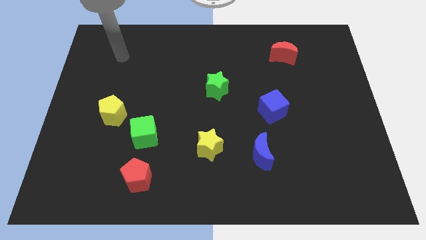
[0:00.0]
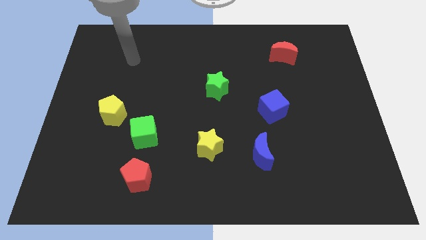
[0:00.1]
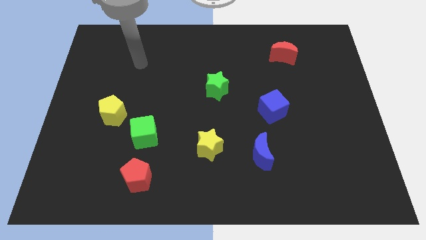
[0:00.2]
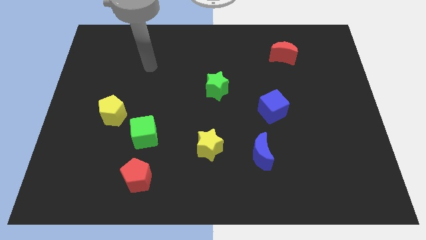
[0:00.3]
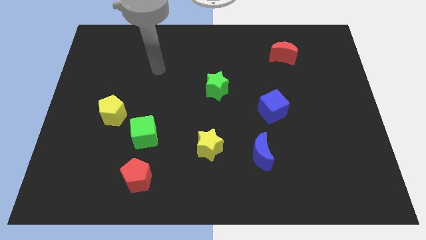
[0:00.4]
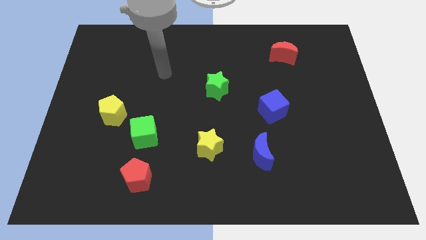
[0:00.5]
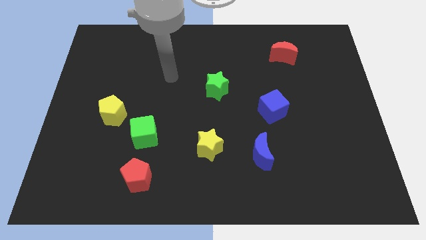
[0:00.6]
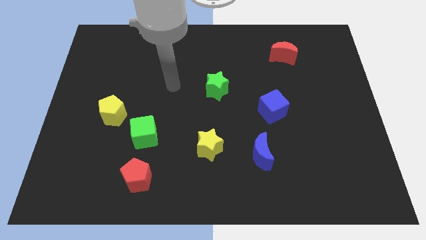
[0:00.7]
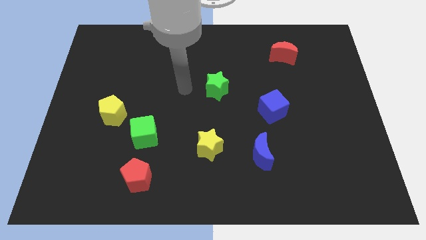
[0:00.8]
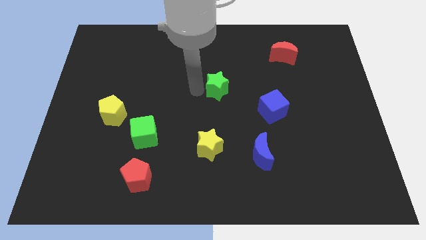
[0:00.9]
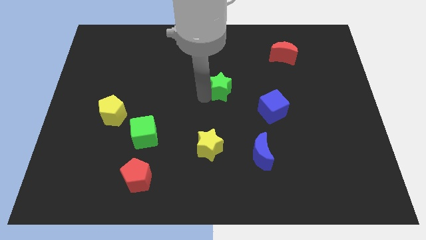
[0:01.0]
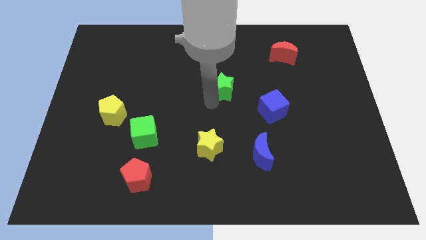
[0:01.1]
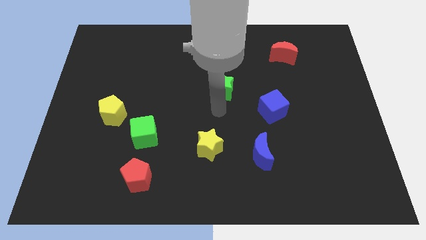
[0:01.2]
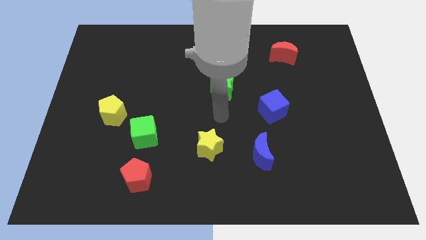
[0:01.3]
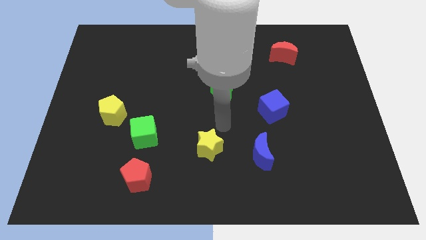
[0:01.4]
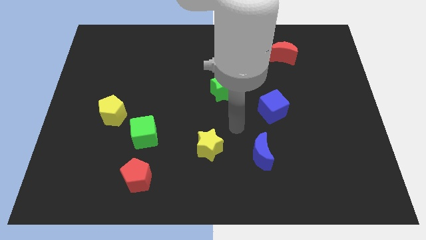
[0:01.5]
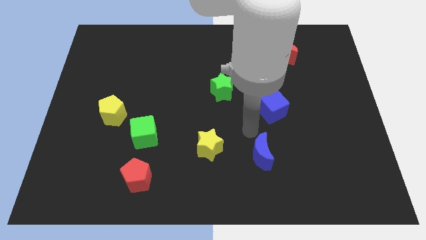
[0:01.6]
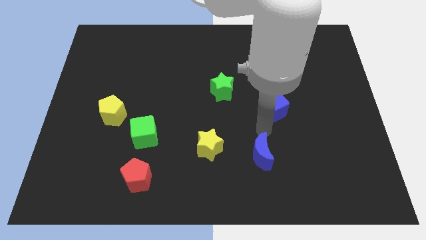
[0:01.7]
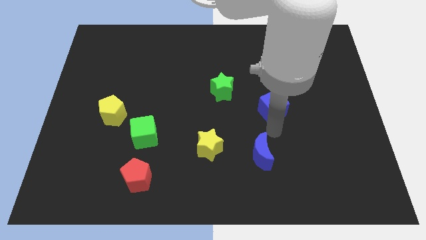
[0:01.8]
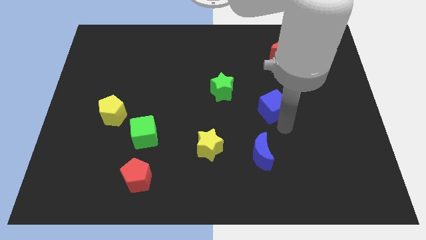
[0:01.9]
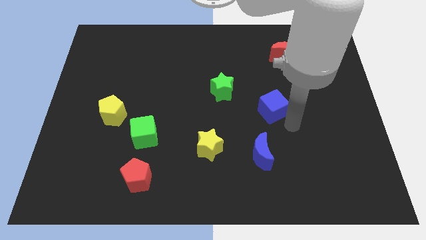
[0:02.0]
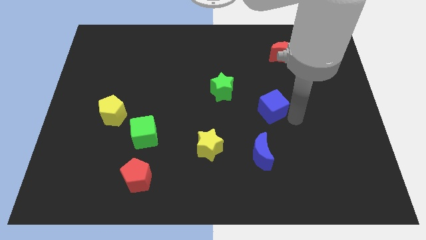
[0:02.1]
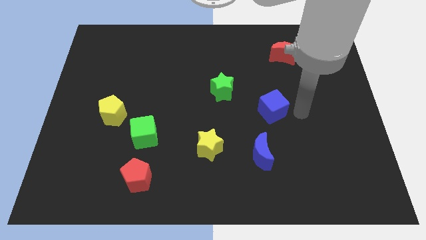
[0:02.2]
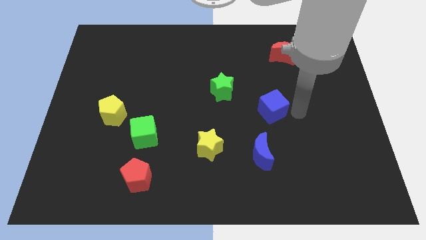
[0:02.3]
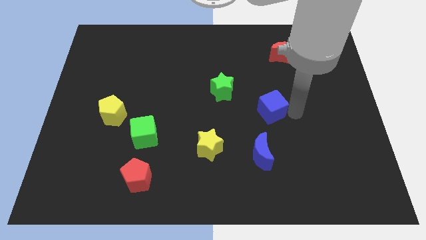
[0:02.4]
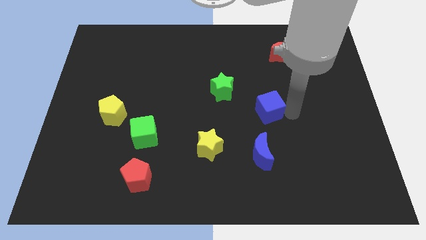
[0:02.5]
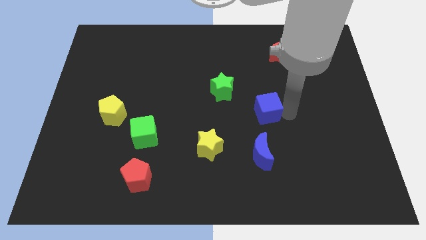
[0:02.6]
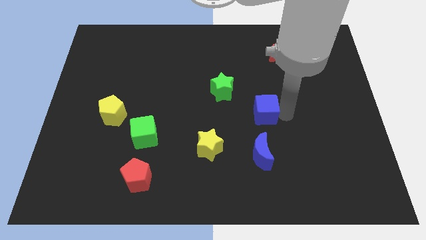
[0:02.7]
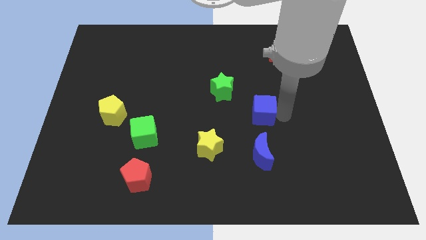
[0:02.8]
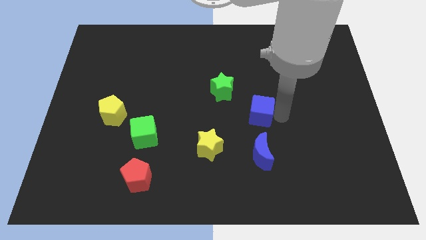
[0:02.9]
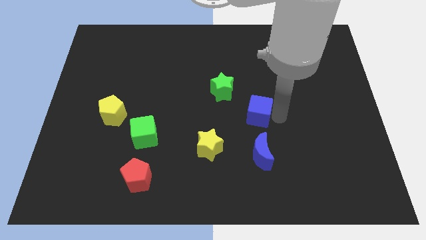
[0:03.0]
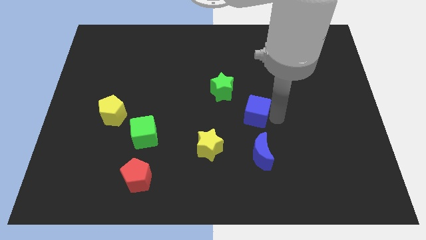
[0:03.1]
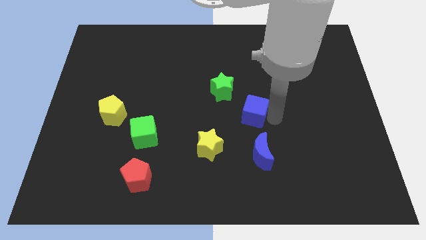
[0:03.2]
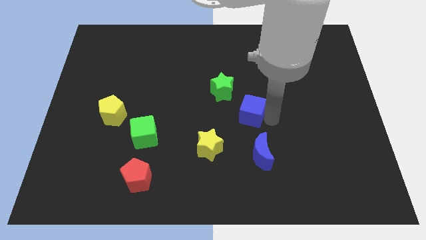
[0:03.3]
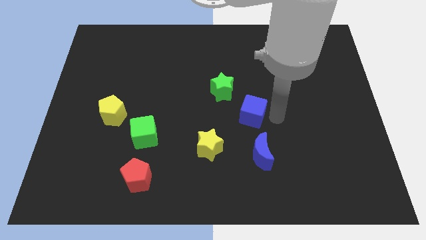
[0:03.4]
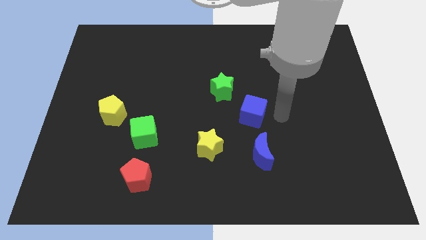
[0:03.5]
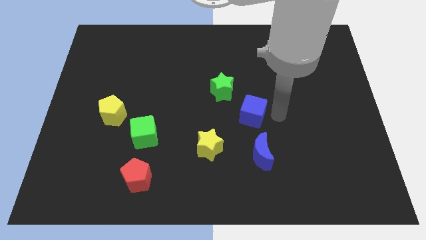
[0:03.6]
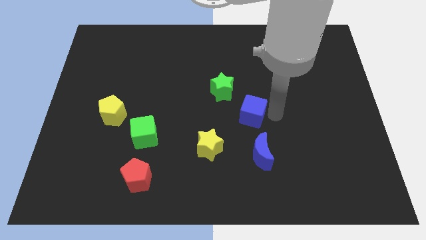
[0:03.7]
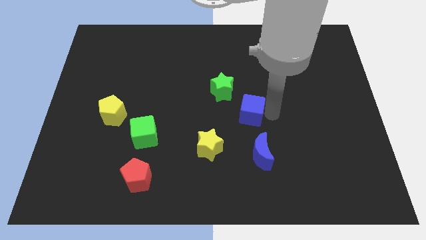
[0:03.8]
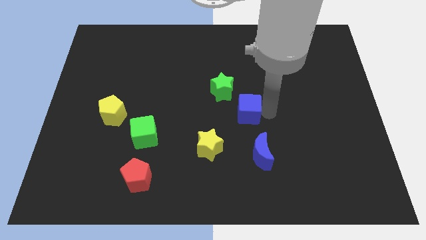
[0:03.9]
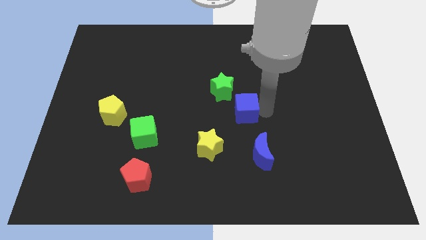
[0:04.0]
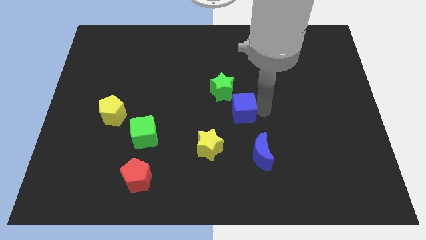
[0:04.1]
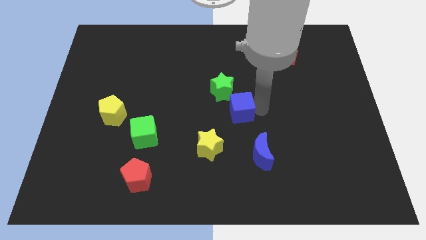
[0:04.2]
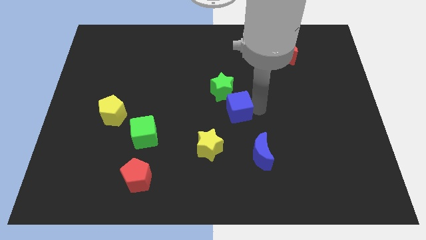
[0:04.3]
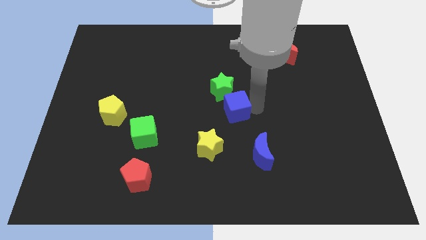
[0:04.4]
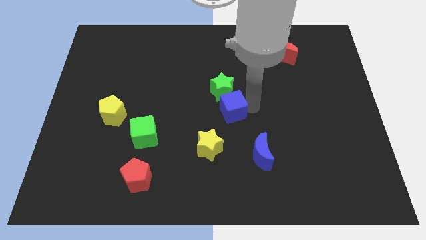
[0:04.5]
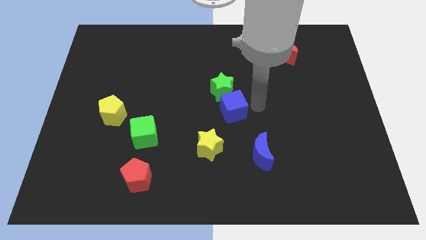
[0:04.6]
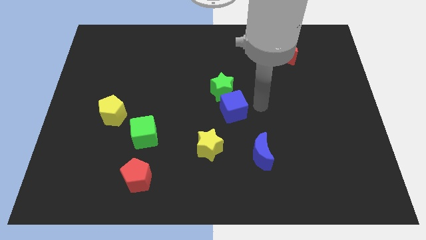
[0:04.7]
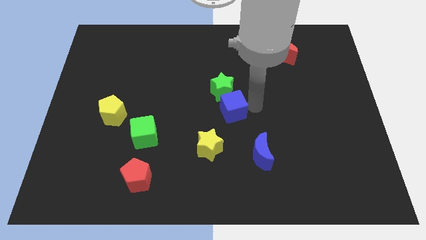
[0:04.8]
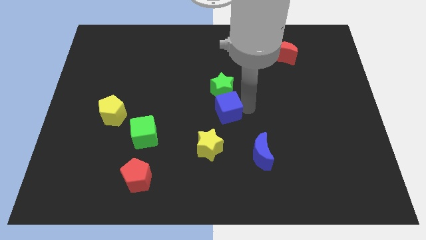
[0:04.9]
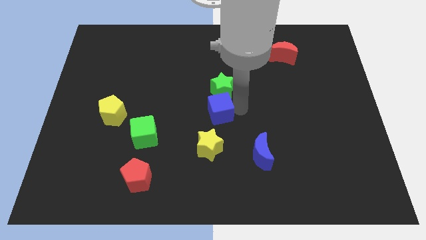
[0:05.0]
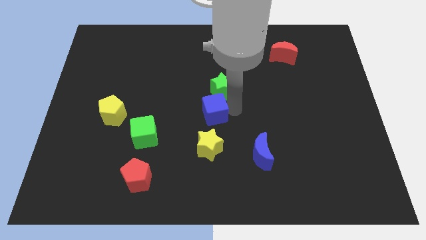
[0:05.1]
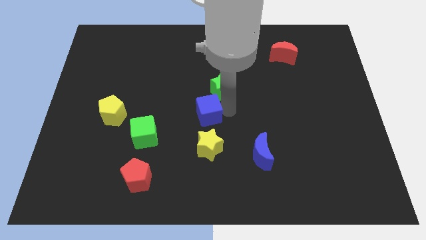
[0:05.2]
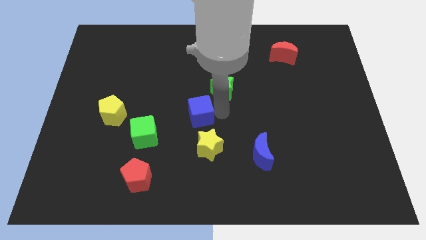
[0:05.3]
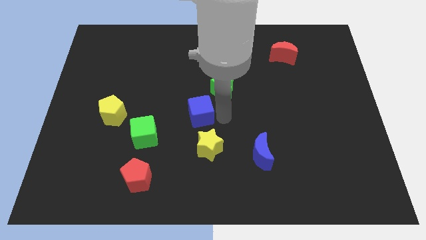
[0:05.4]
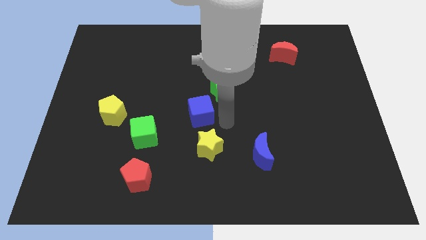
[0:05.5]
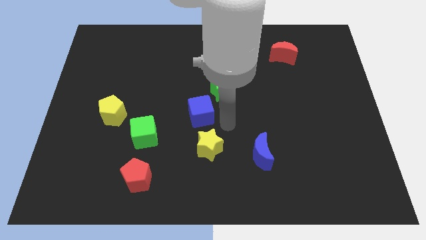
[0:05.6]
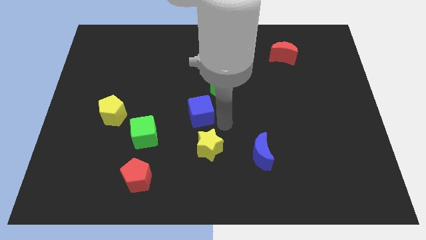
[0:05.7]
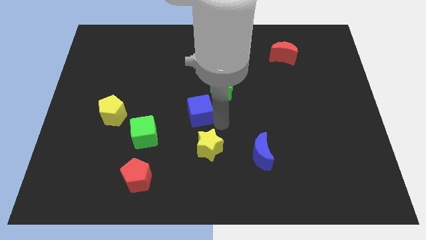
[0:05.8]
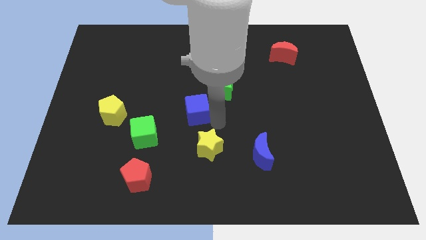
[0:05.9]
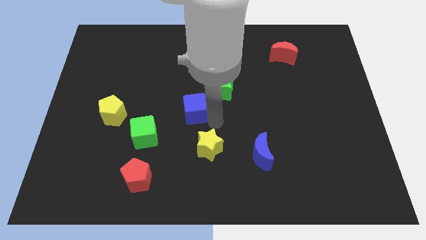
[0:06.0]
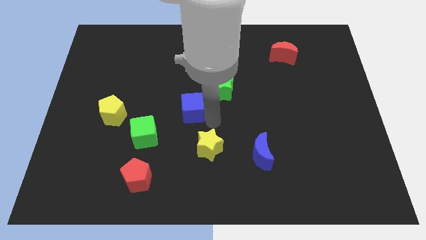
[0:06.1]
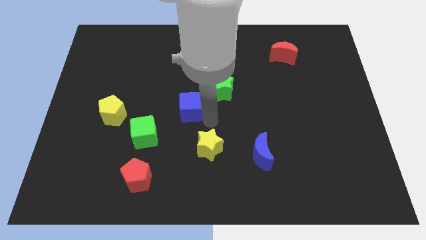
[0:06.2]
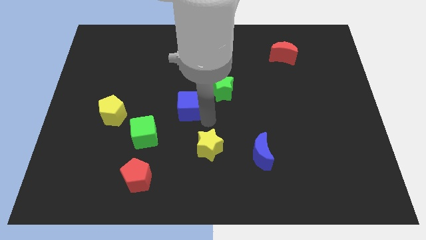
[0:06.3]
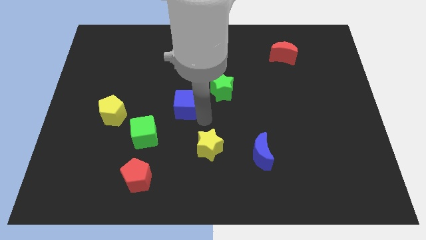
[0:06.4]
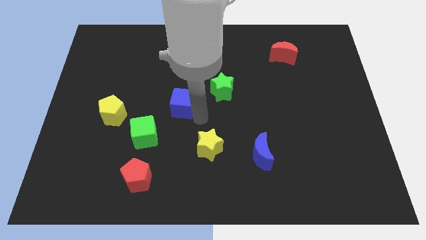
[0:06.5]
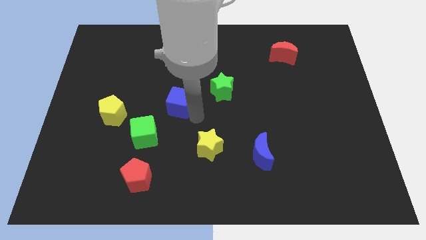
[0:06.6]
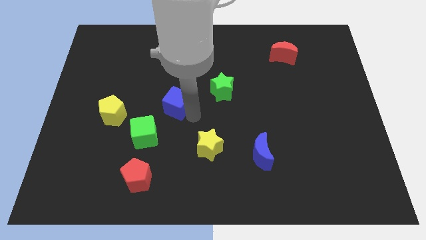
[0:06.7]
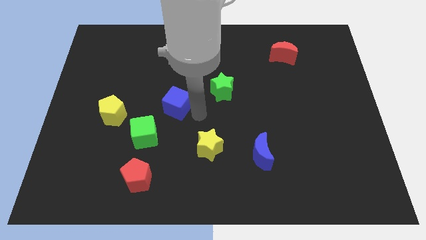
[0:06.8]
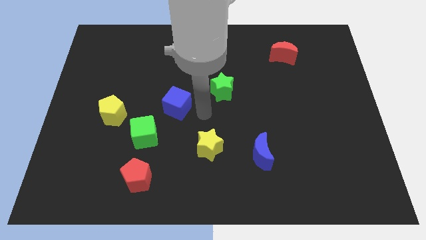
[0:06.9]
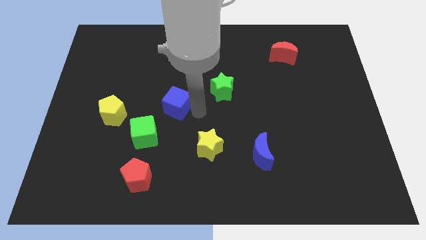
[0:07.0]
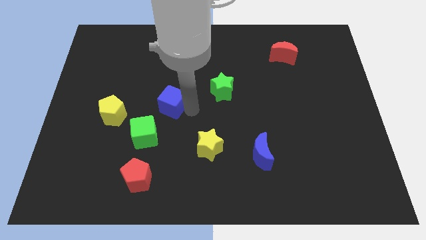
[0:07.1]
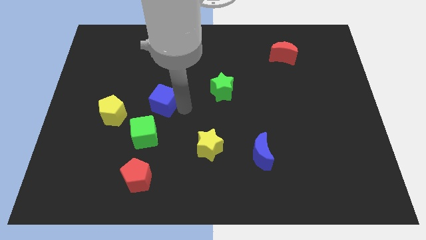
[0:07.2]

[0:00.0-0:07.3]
move the blue cube to the top of the green cube
